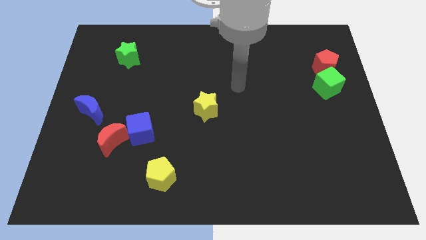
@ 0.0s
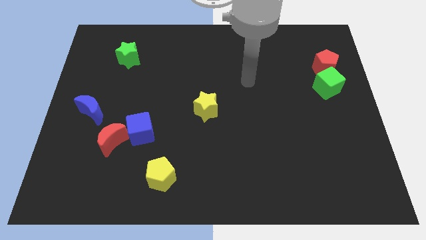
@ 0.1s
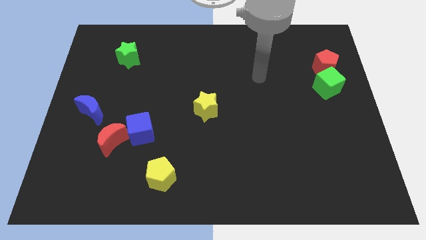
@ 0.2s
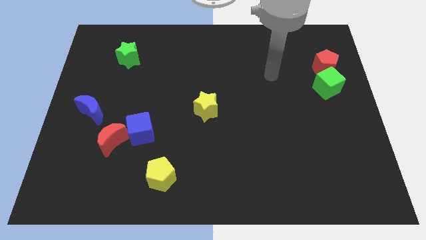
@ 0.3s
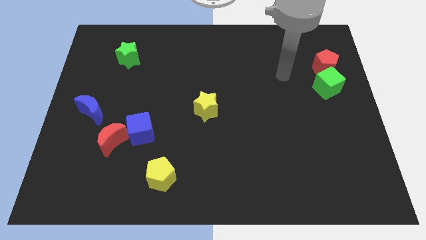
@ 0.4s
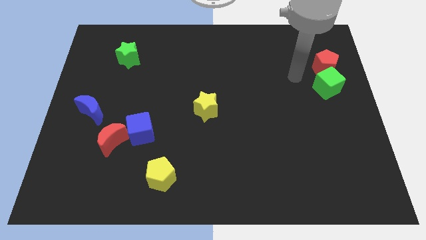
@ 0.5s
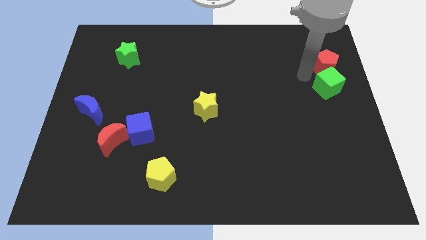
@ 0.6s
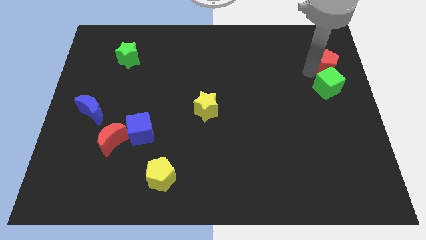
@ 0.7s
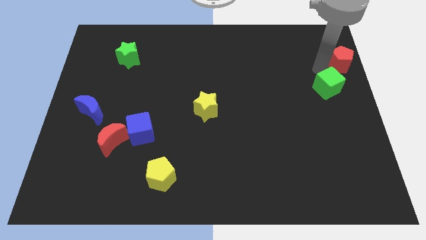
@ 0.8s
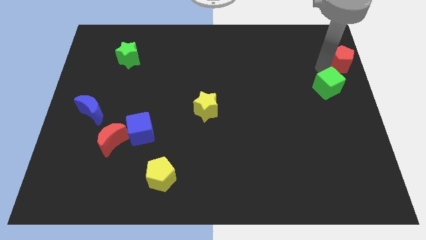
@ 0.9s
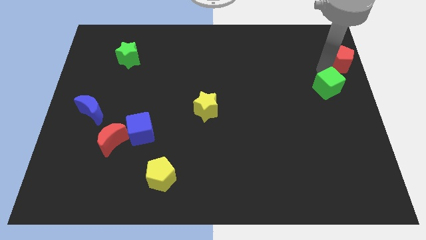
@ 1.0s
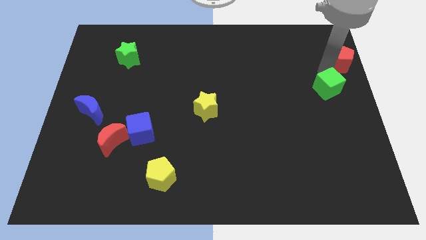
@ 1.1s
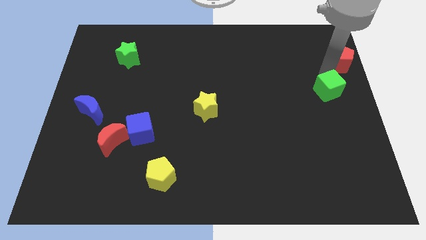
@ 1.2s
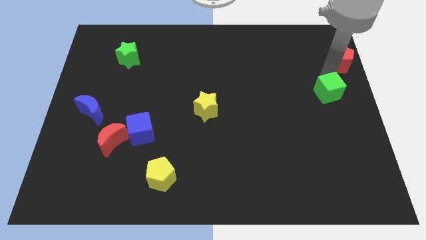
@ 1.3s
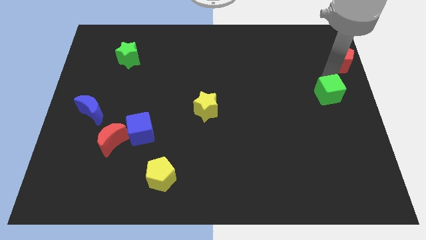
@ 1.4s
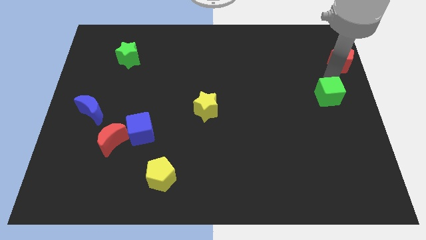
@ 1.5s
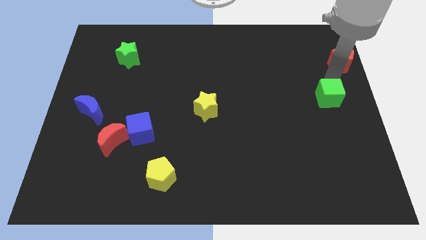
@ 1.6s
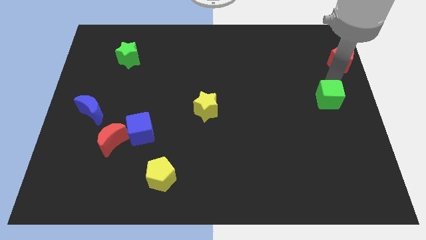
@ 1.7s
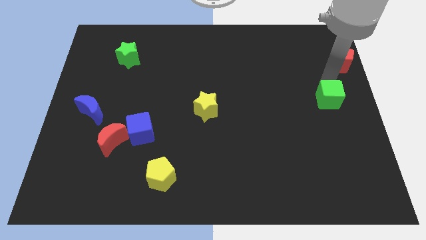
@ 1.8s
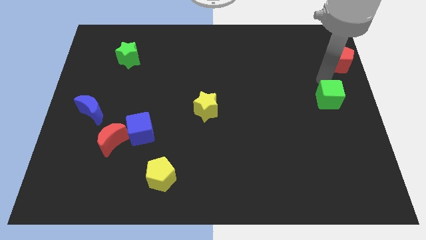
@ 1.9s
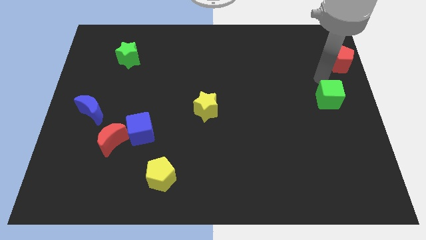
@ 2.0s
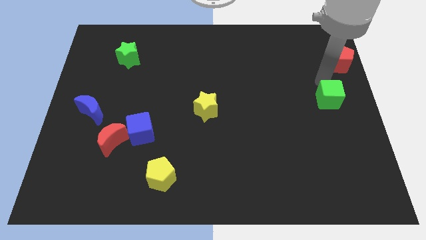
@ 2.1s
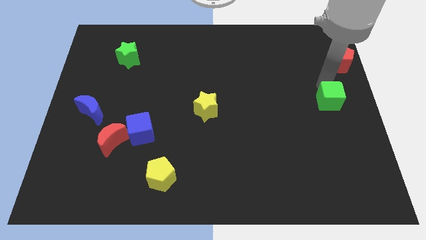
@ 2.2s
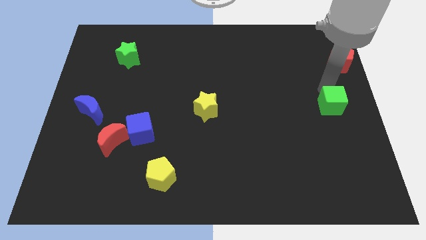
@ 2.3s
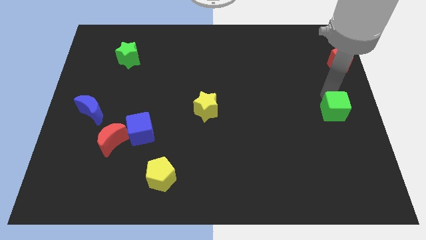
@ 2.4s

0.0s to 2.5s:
move the green cube downwards slightly

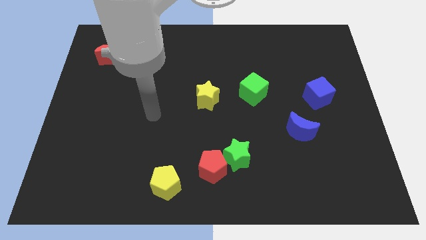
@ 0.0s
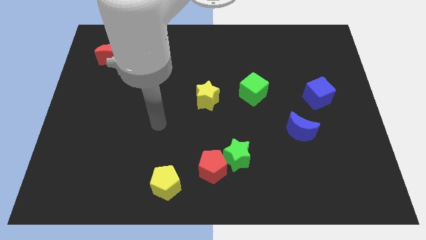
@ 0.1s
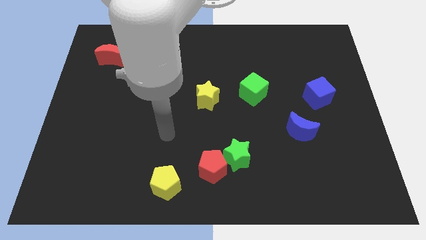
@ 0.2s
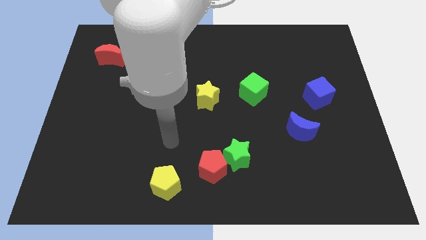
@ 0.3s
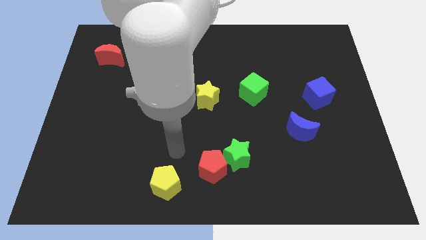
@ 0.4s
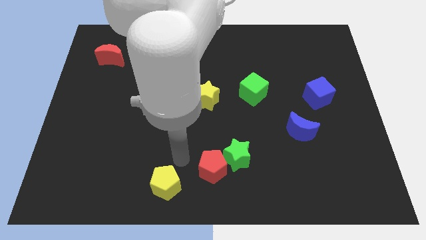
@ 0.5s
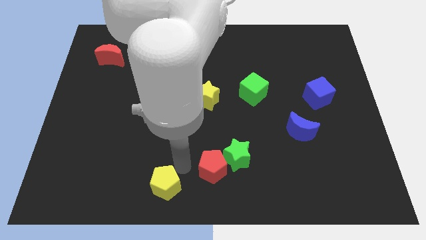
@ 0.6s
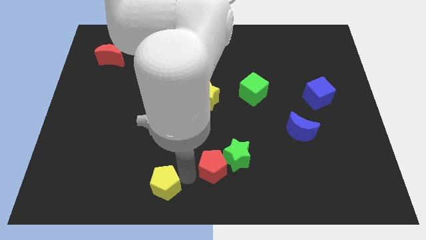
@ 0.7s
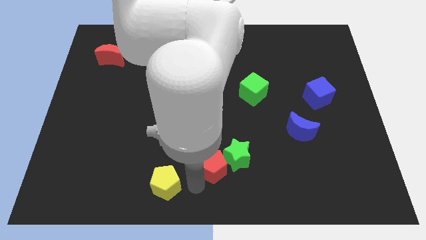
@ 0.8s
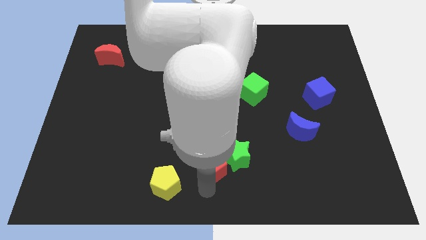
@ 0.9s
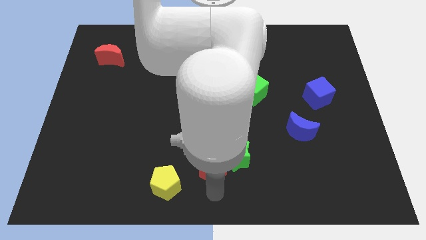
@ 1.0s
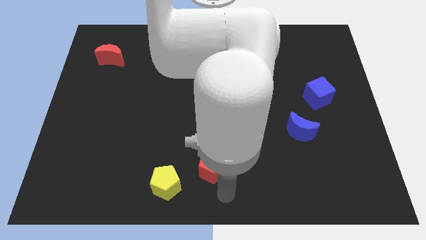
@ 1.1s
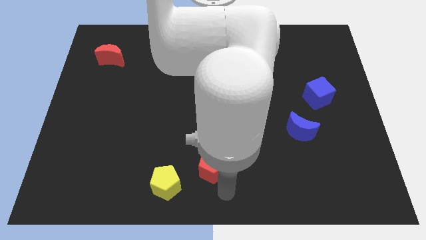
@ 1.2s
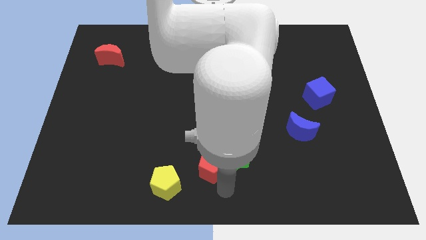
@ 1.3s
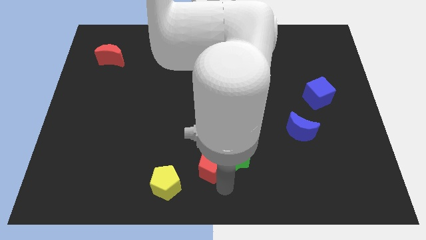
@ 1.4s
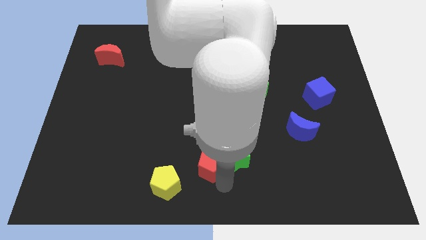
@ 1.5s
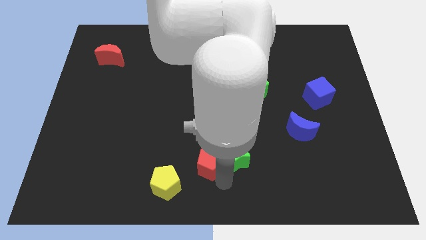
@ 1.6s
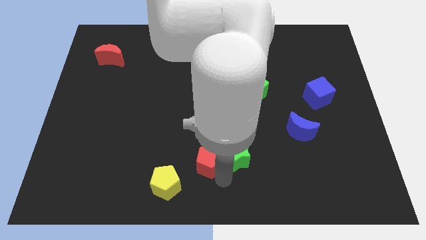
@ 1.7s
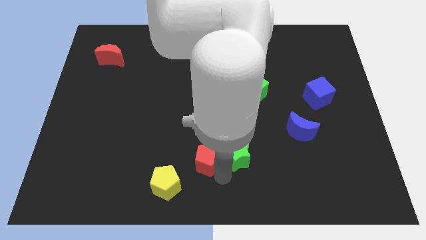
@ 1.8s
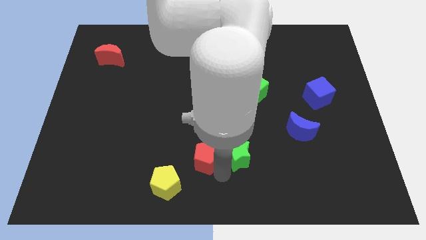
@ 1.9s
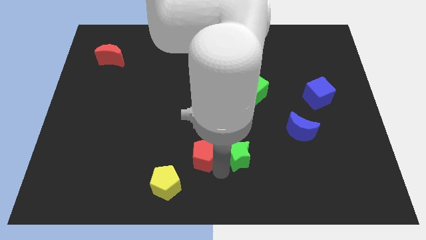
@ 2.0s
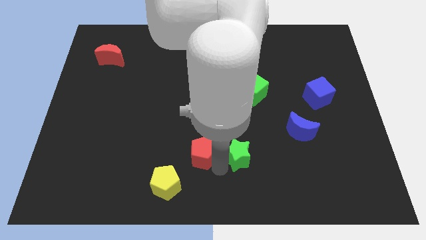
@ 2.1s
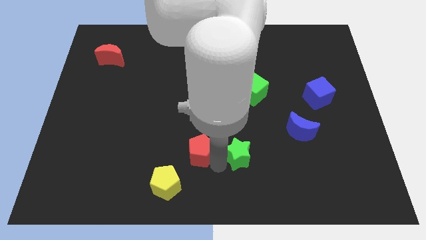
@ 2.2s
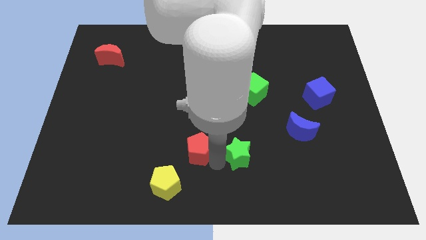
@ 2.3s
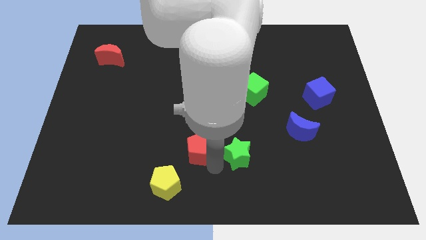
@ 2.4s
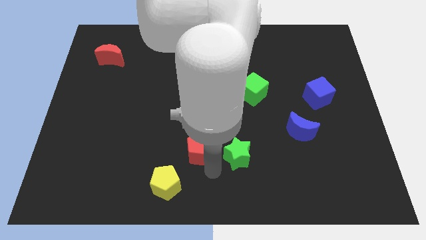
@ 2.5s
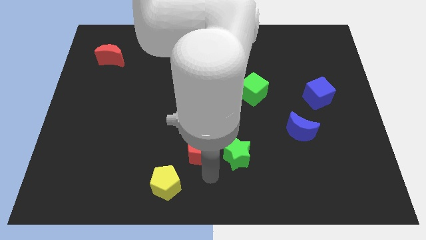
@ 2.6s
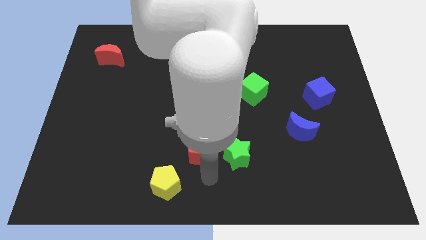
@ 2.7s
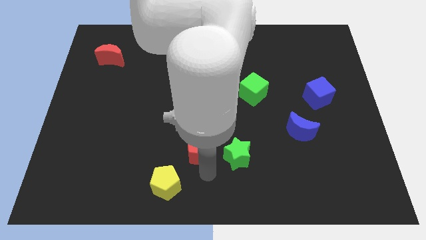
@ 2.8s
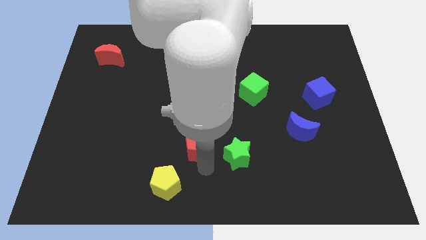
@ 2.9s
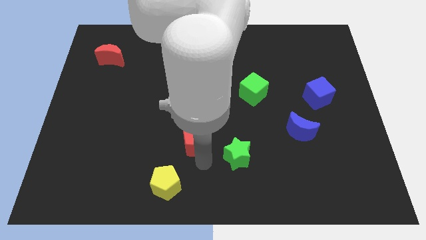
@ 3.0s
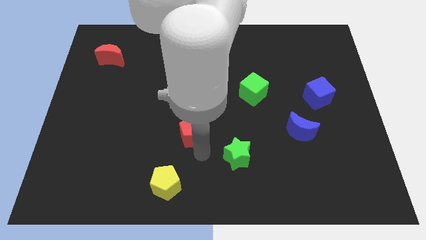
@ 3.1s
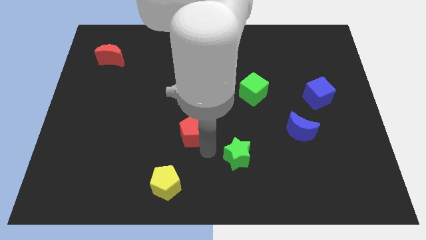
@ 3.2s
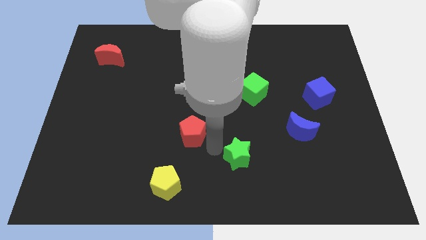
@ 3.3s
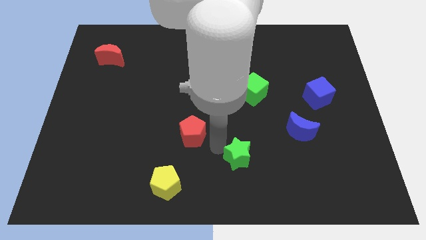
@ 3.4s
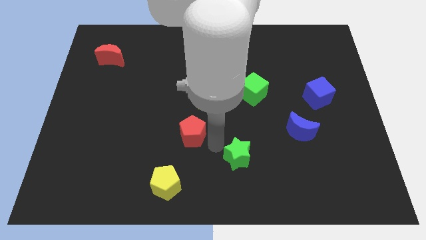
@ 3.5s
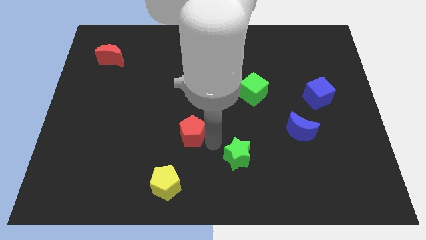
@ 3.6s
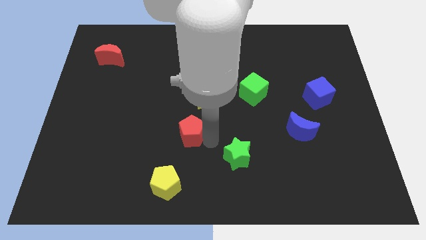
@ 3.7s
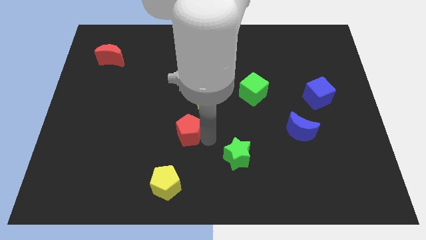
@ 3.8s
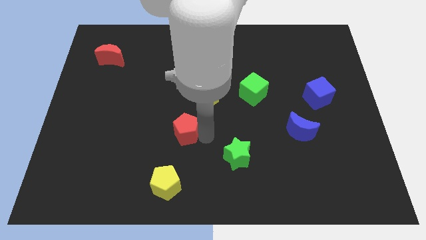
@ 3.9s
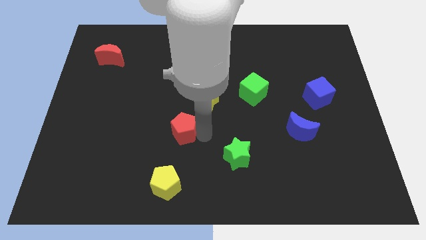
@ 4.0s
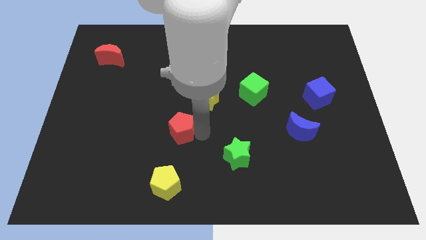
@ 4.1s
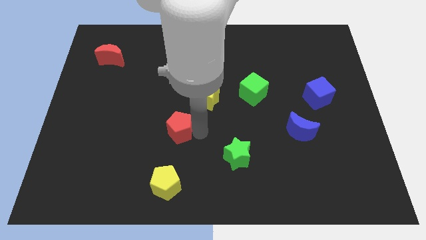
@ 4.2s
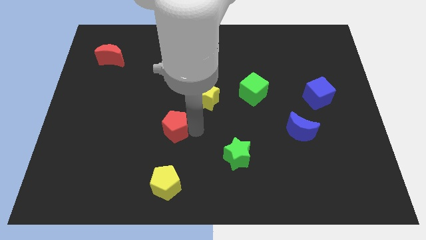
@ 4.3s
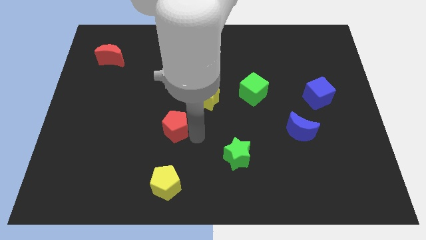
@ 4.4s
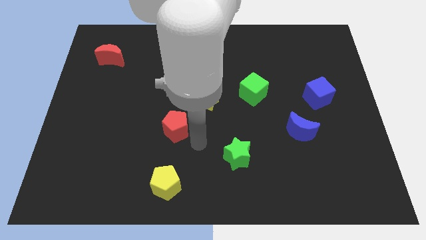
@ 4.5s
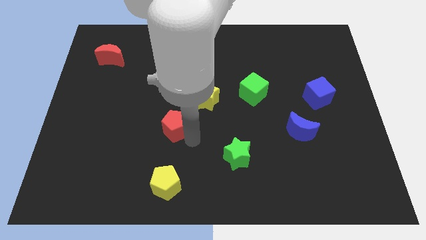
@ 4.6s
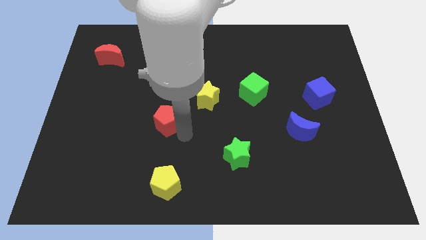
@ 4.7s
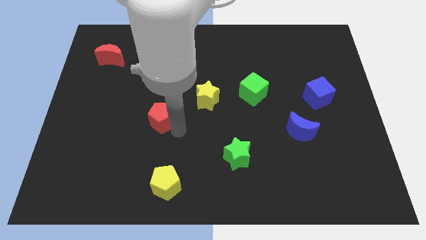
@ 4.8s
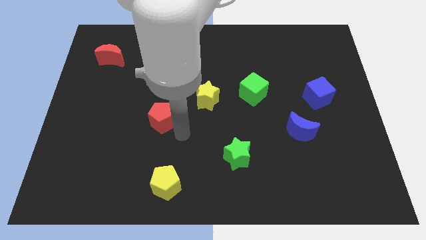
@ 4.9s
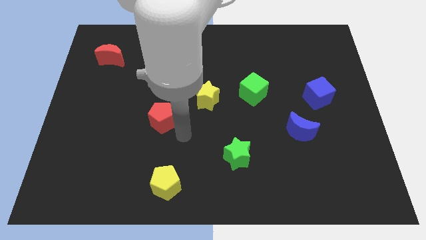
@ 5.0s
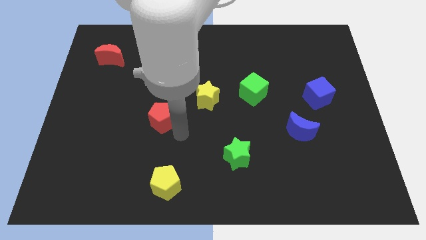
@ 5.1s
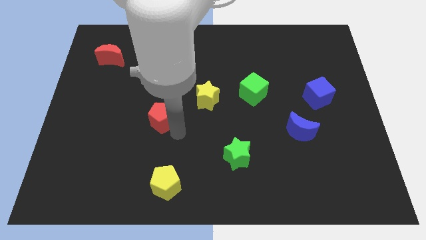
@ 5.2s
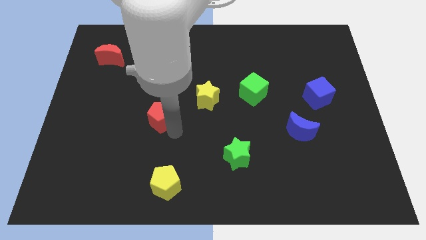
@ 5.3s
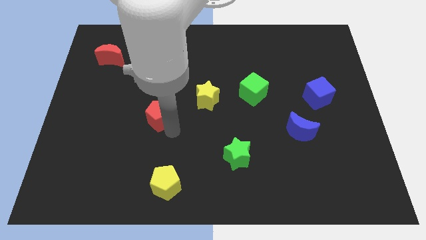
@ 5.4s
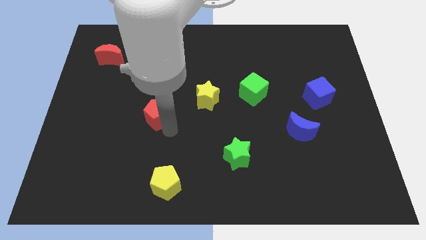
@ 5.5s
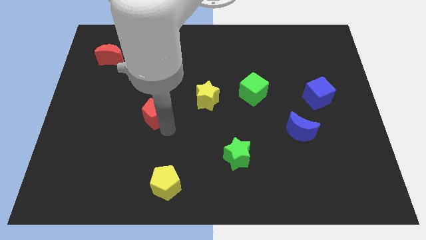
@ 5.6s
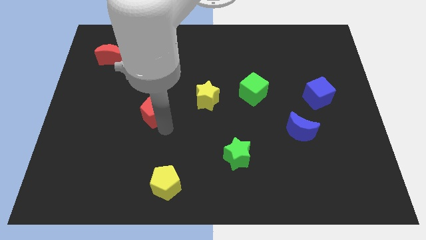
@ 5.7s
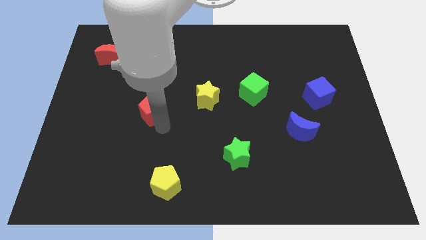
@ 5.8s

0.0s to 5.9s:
slide the red pentagon upwards and to the left
